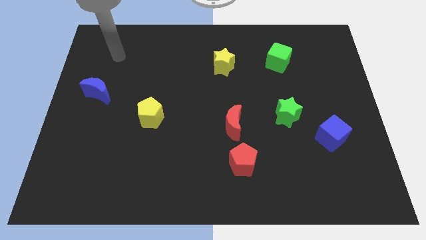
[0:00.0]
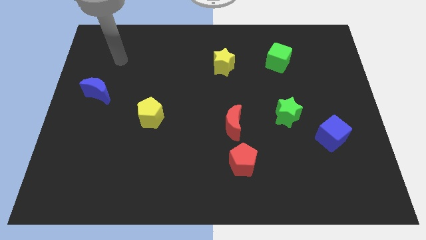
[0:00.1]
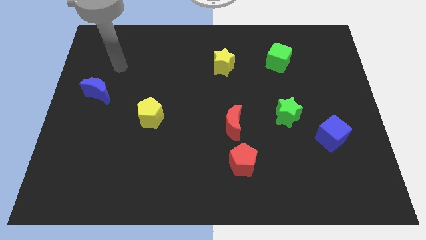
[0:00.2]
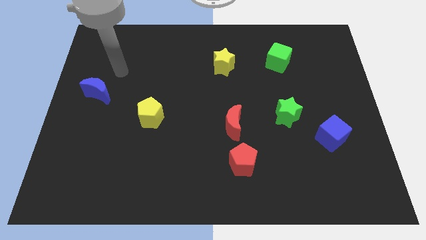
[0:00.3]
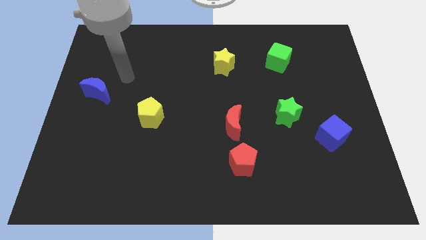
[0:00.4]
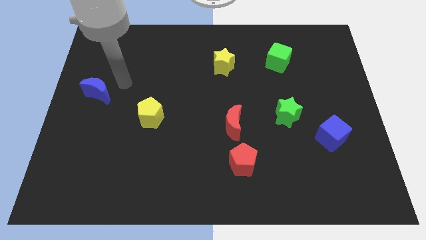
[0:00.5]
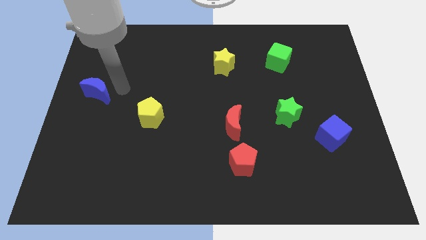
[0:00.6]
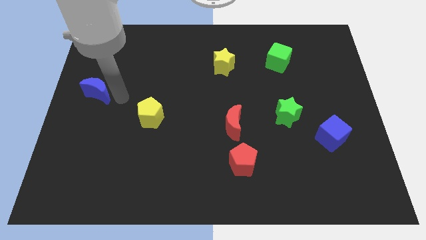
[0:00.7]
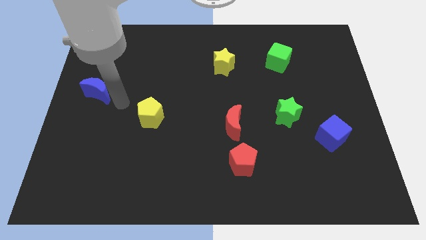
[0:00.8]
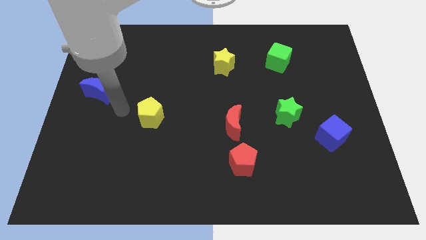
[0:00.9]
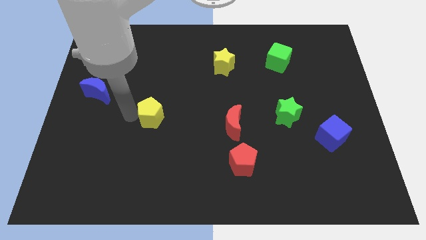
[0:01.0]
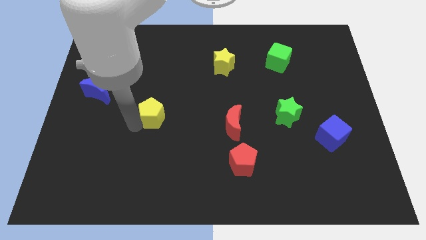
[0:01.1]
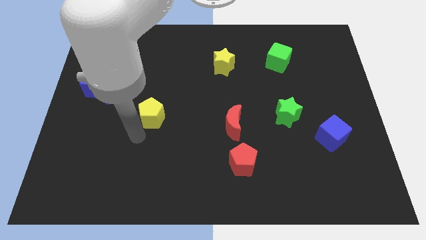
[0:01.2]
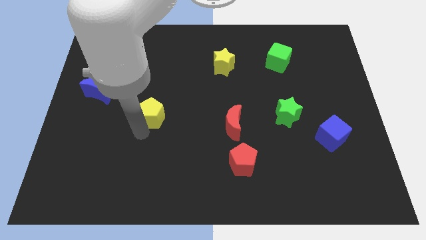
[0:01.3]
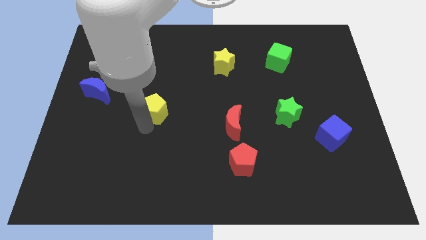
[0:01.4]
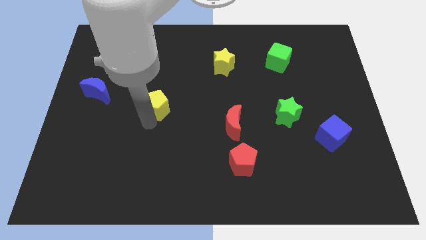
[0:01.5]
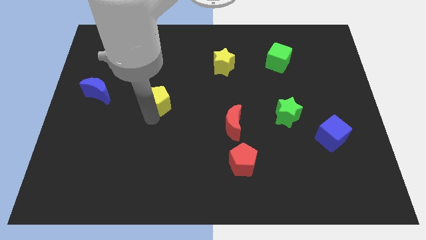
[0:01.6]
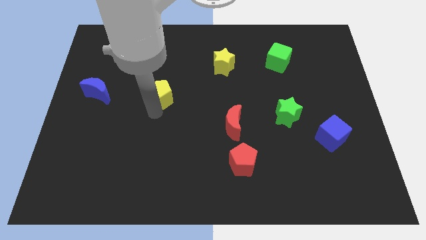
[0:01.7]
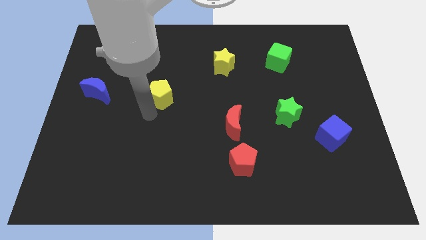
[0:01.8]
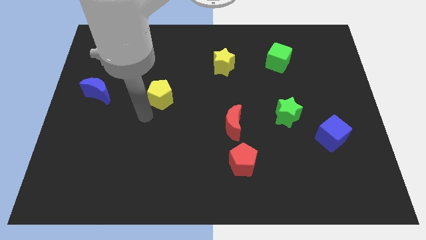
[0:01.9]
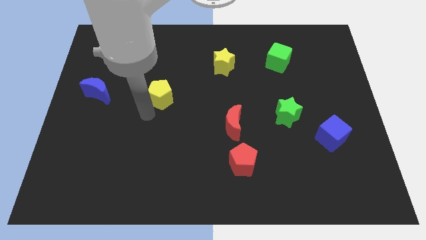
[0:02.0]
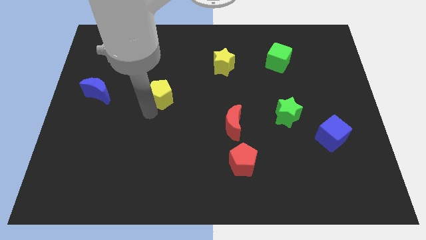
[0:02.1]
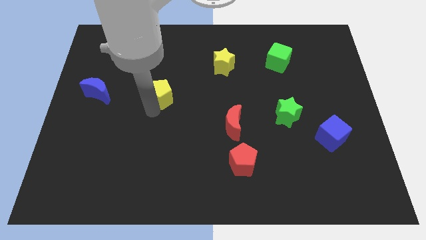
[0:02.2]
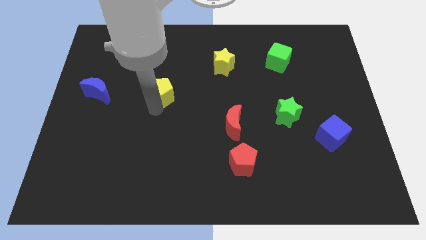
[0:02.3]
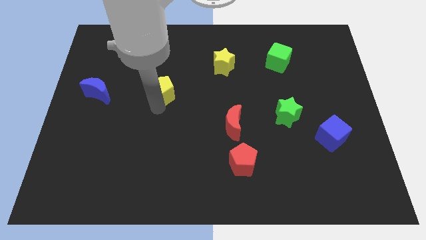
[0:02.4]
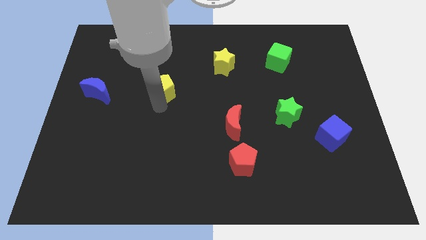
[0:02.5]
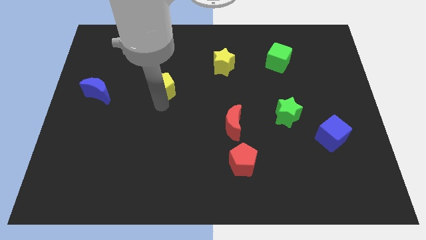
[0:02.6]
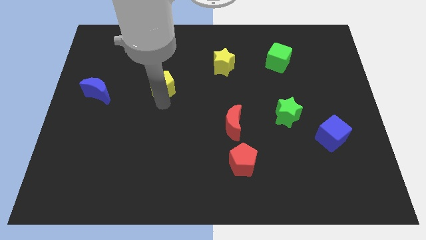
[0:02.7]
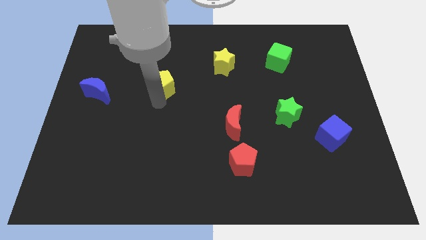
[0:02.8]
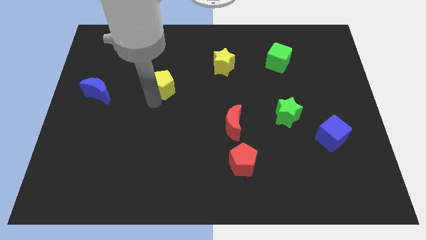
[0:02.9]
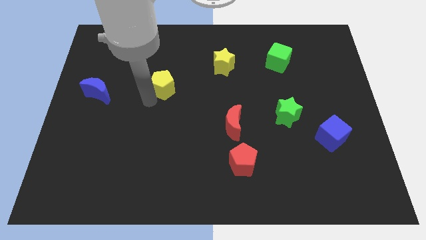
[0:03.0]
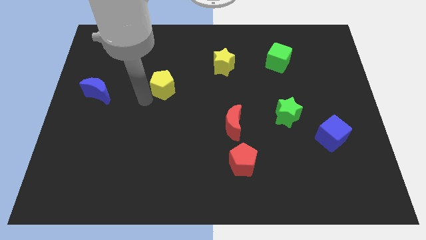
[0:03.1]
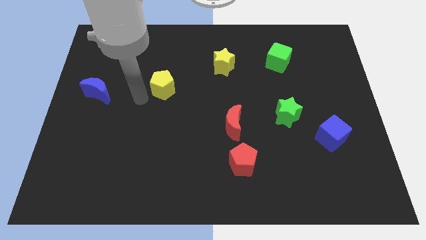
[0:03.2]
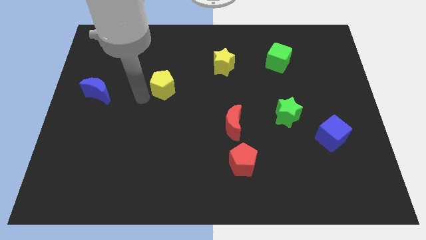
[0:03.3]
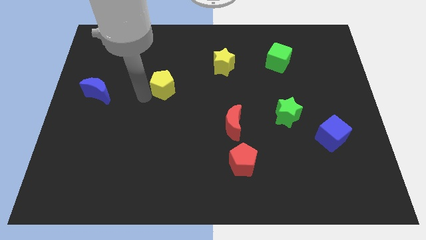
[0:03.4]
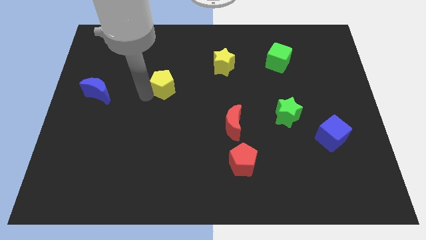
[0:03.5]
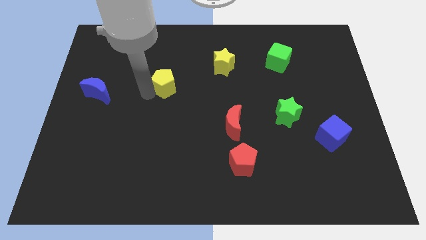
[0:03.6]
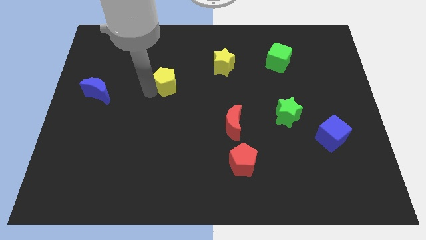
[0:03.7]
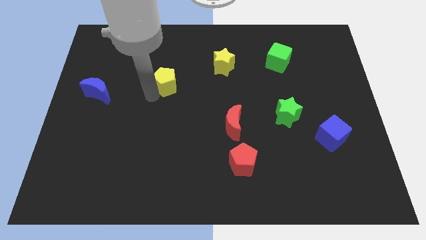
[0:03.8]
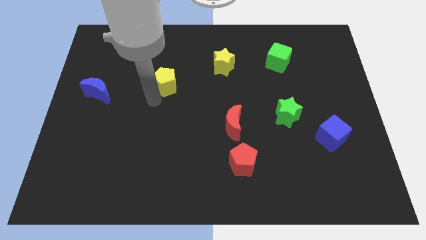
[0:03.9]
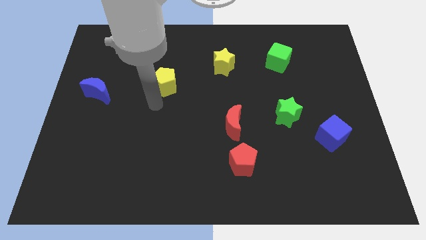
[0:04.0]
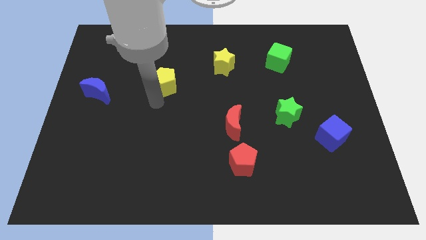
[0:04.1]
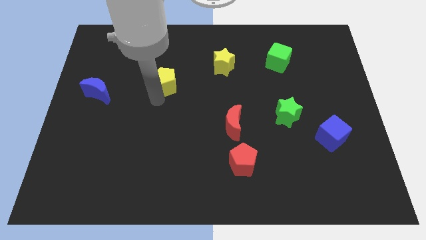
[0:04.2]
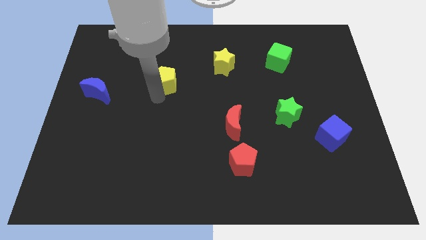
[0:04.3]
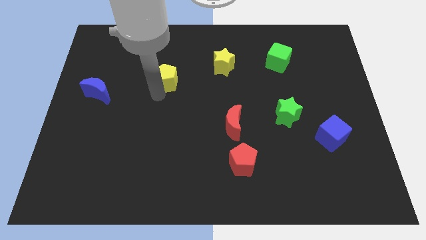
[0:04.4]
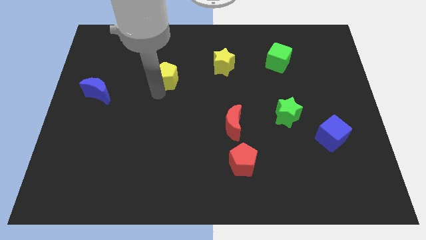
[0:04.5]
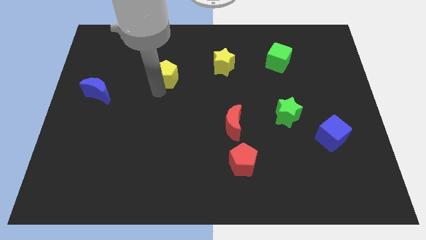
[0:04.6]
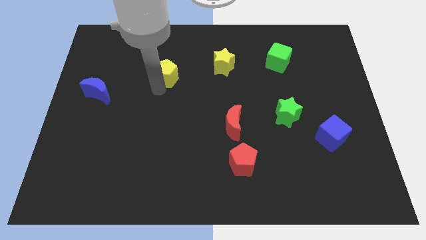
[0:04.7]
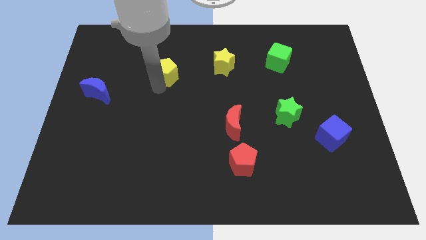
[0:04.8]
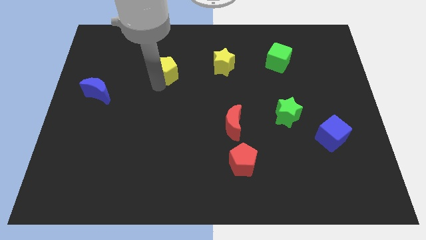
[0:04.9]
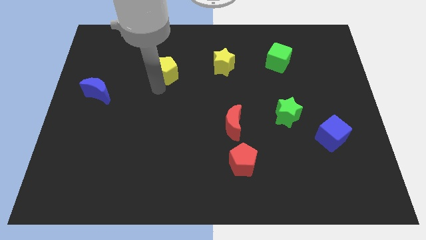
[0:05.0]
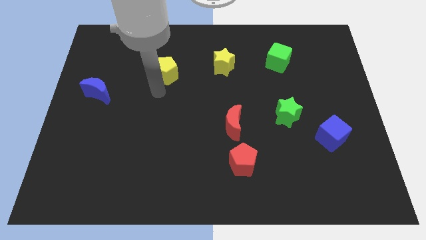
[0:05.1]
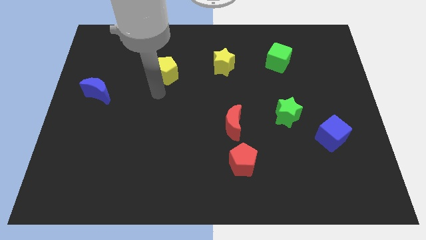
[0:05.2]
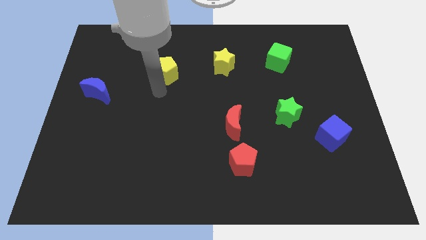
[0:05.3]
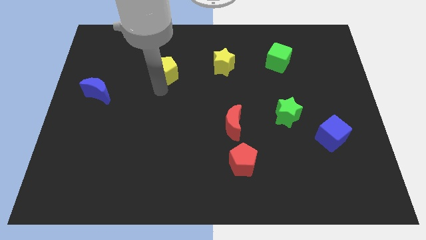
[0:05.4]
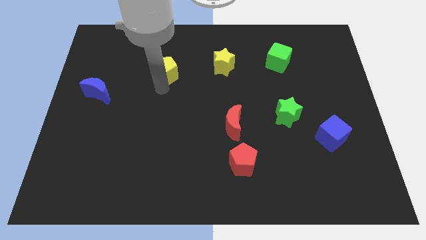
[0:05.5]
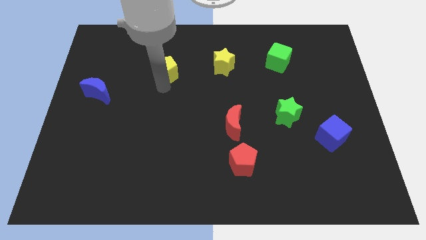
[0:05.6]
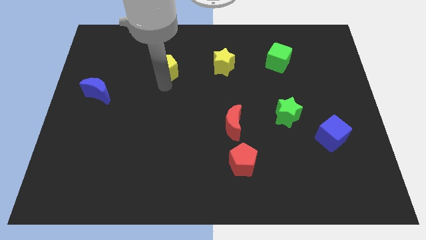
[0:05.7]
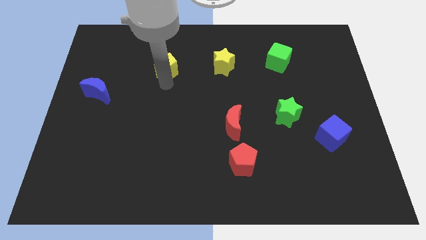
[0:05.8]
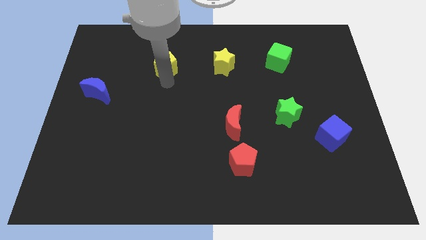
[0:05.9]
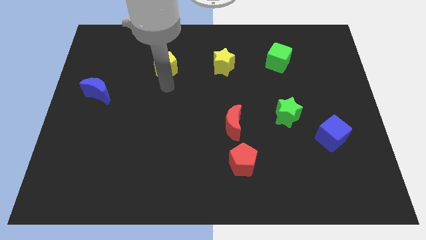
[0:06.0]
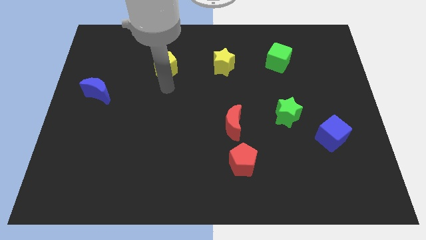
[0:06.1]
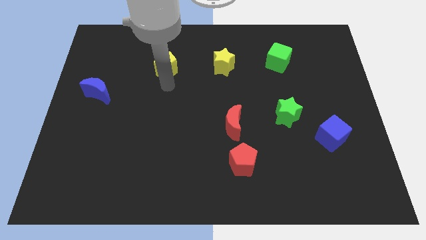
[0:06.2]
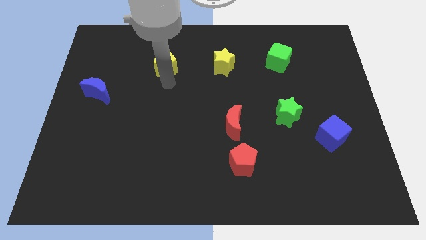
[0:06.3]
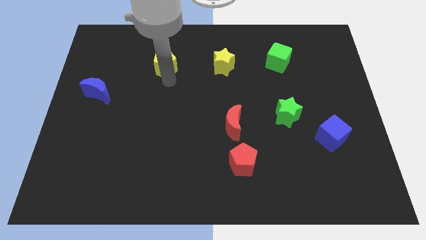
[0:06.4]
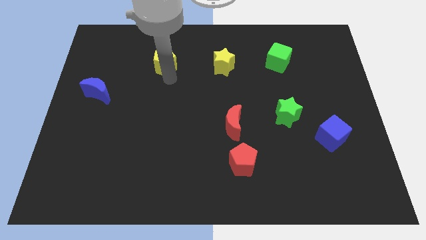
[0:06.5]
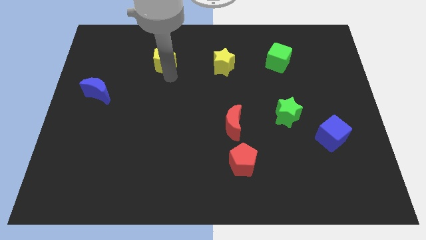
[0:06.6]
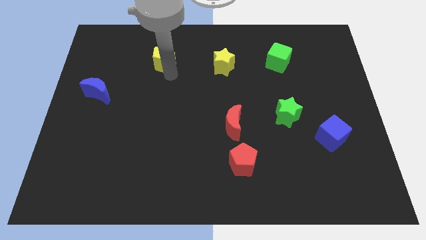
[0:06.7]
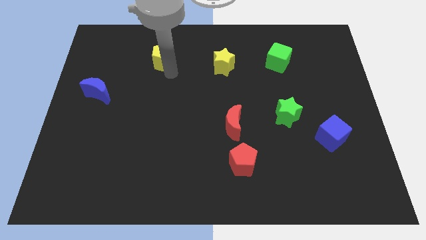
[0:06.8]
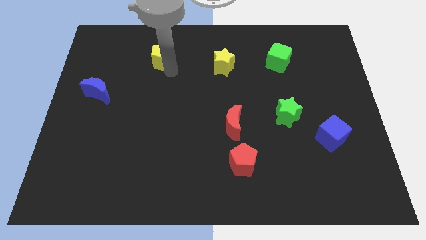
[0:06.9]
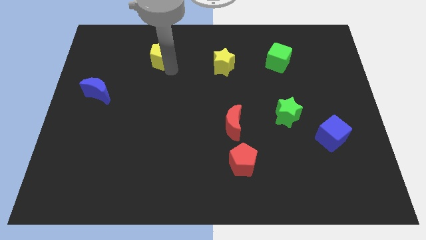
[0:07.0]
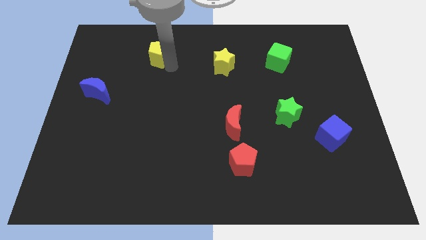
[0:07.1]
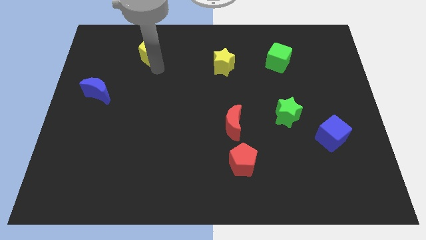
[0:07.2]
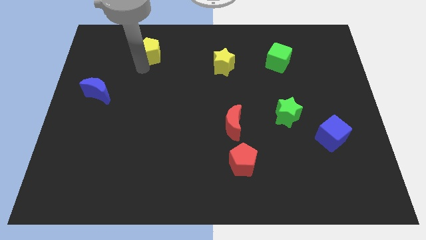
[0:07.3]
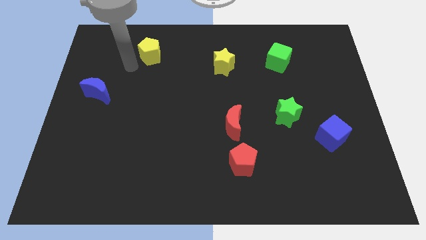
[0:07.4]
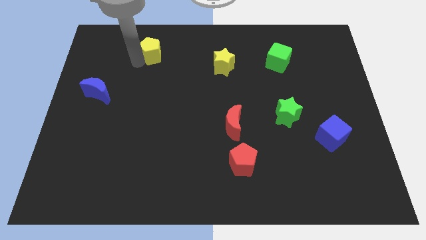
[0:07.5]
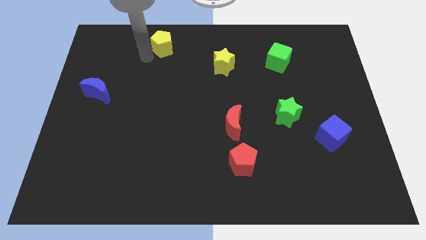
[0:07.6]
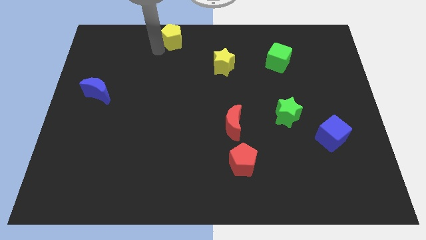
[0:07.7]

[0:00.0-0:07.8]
move the yellow pentagon to the top side
